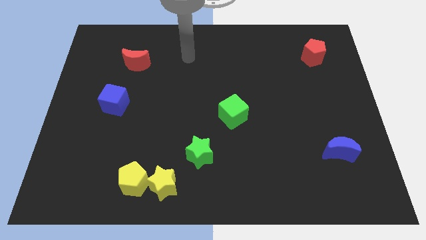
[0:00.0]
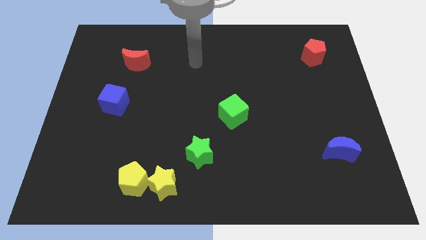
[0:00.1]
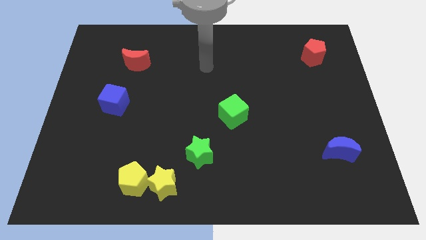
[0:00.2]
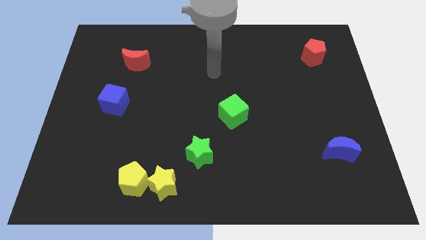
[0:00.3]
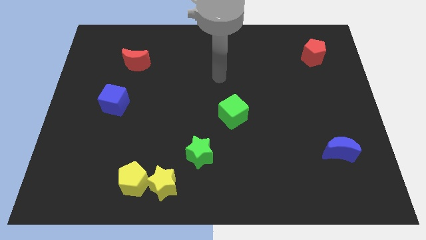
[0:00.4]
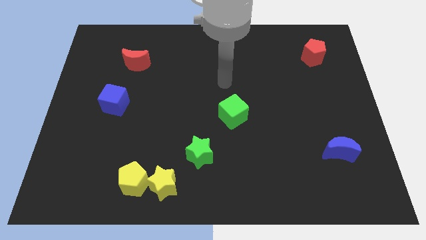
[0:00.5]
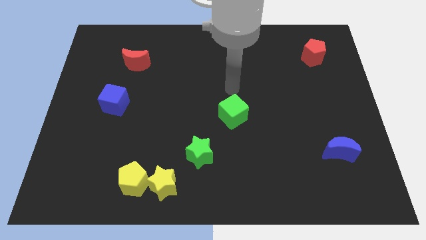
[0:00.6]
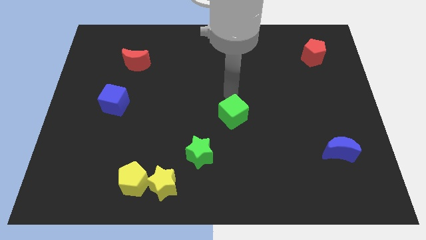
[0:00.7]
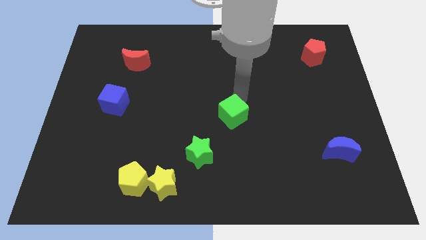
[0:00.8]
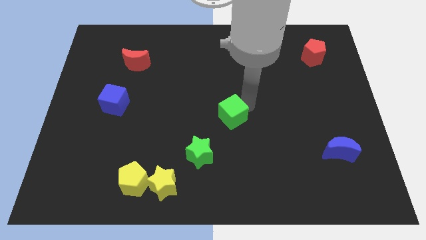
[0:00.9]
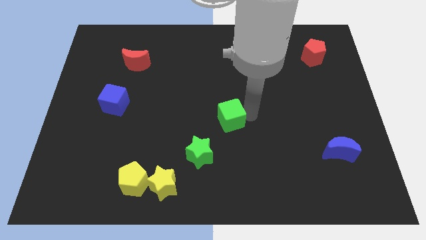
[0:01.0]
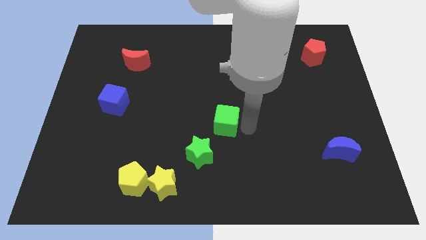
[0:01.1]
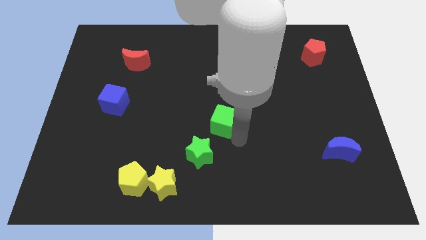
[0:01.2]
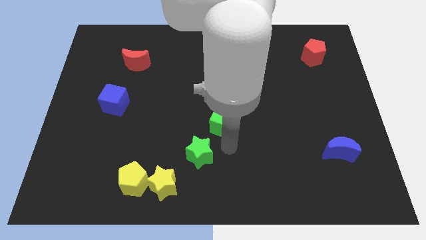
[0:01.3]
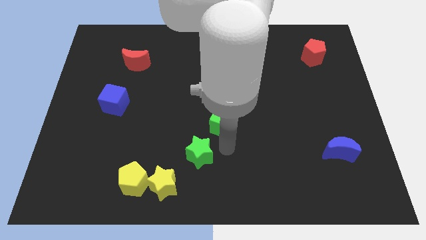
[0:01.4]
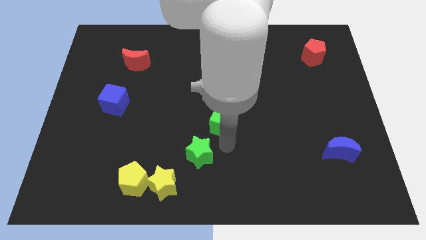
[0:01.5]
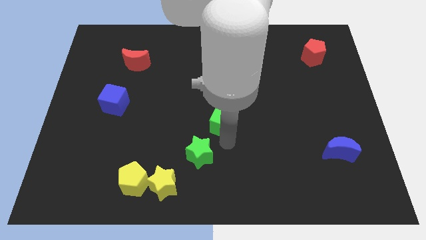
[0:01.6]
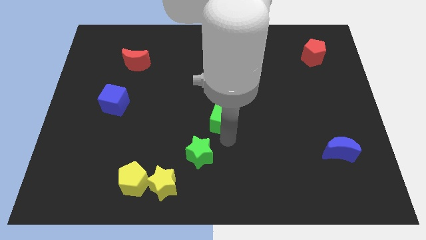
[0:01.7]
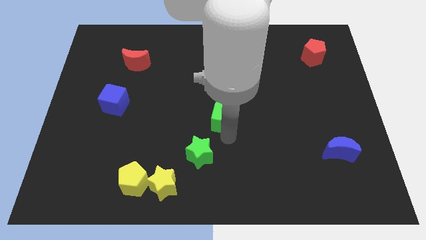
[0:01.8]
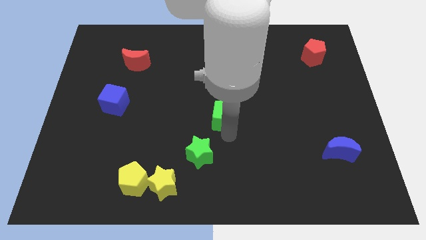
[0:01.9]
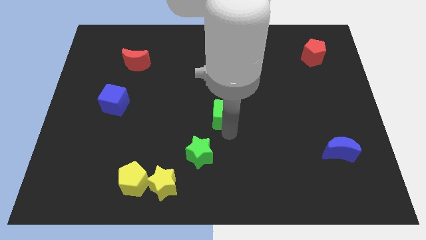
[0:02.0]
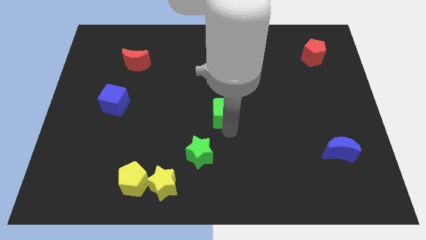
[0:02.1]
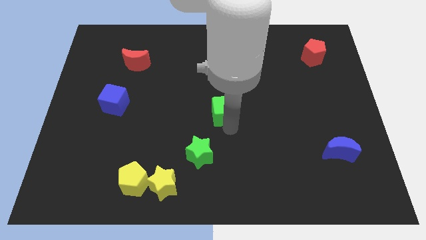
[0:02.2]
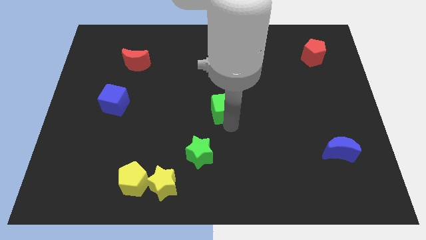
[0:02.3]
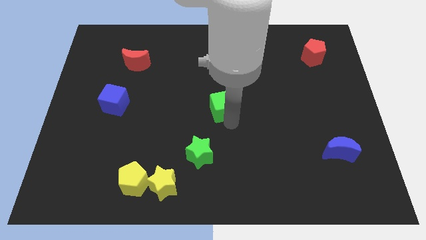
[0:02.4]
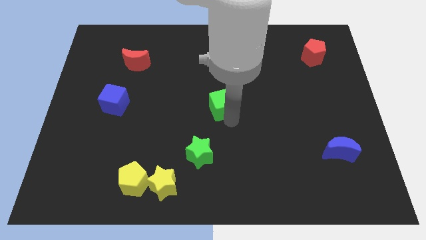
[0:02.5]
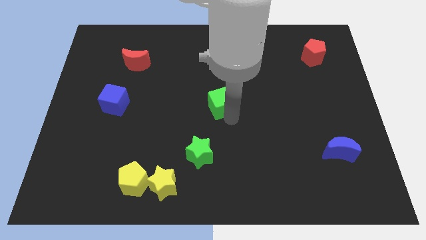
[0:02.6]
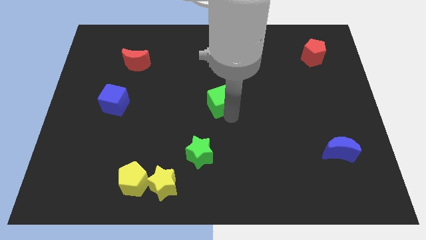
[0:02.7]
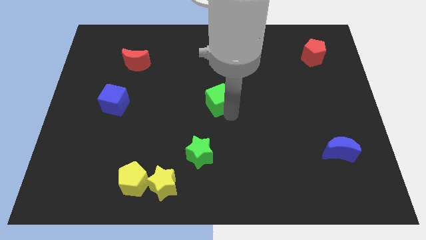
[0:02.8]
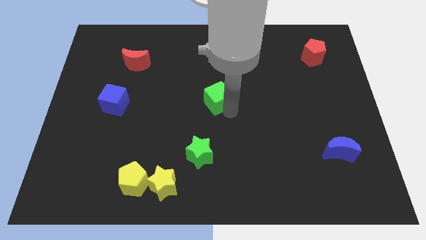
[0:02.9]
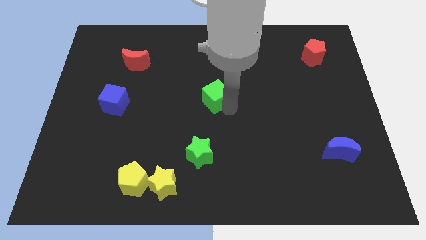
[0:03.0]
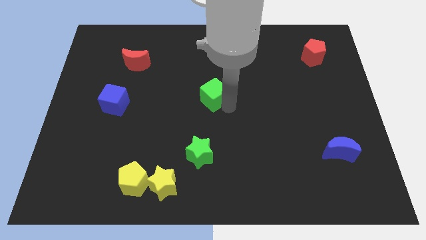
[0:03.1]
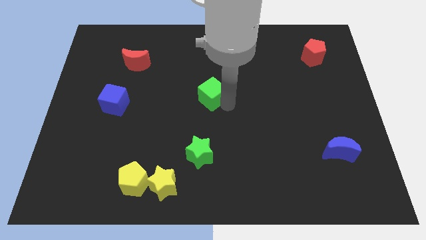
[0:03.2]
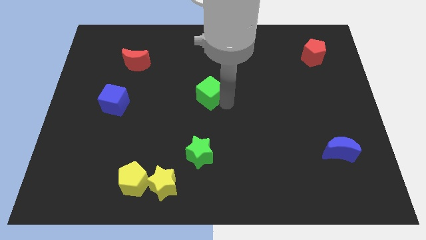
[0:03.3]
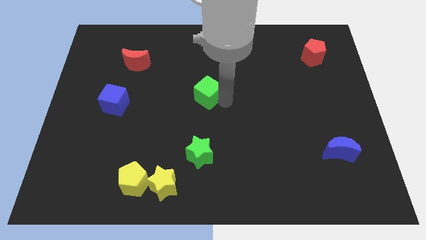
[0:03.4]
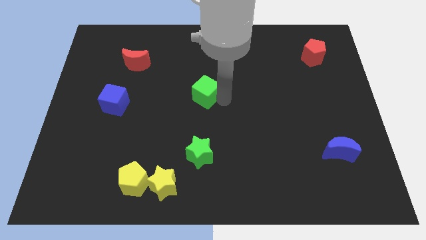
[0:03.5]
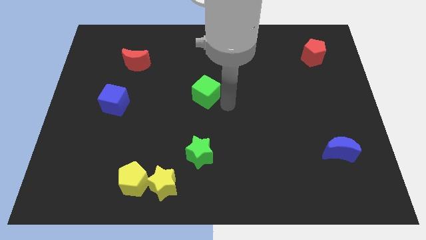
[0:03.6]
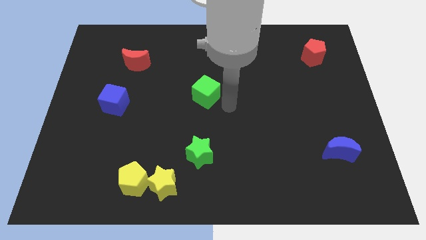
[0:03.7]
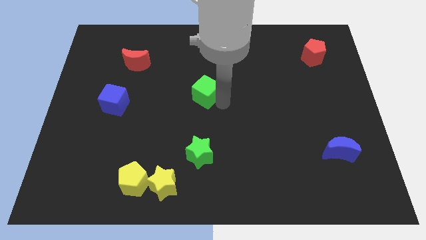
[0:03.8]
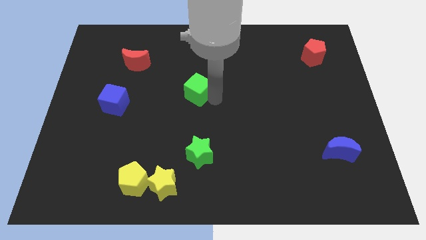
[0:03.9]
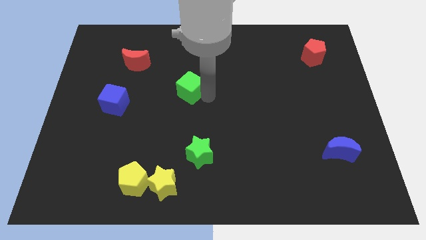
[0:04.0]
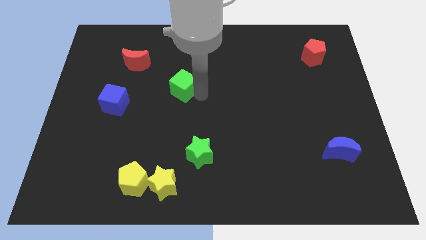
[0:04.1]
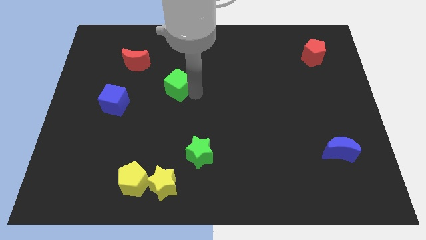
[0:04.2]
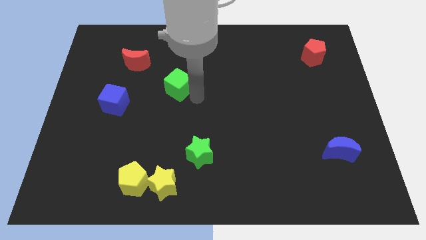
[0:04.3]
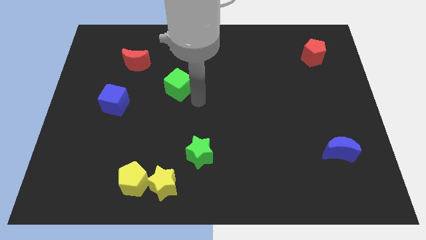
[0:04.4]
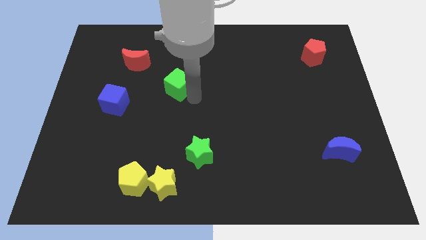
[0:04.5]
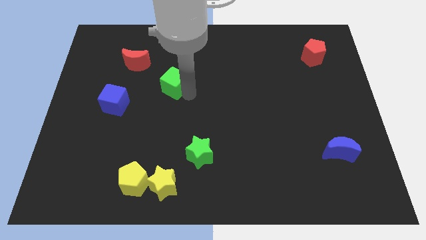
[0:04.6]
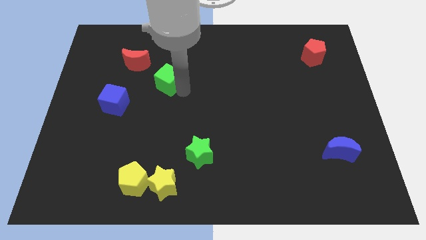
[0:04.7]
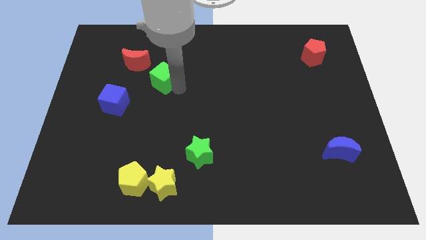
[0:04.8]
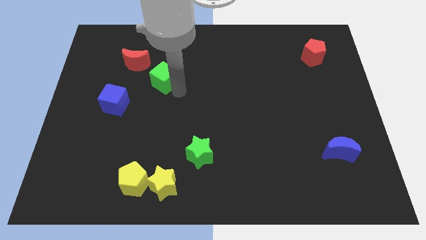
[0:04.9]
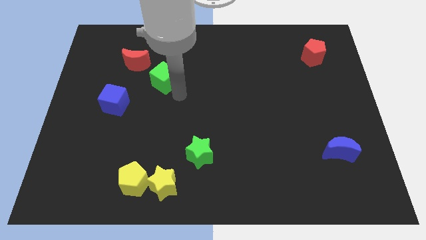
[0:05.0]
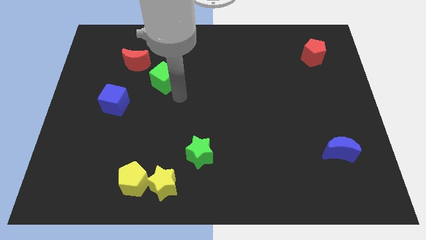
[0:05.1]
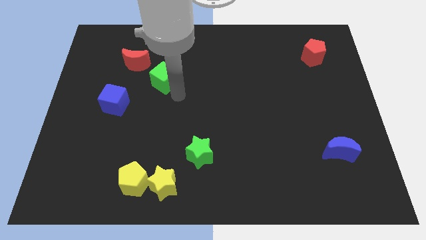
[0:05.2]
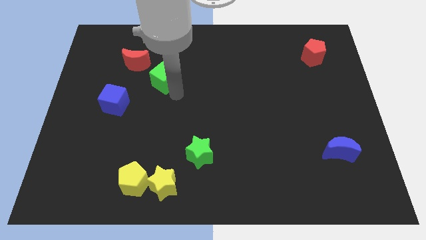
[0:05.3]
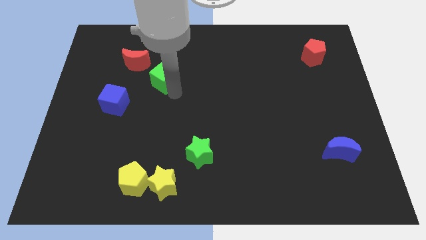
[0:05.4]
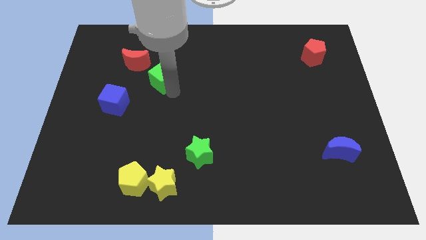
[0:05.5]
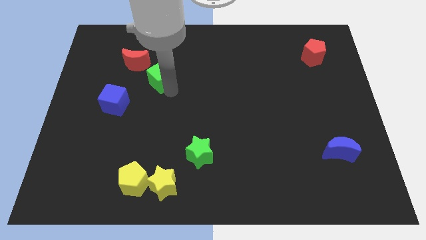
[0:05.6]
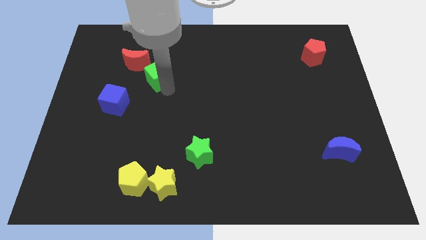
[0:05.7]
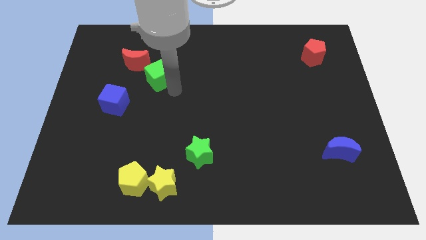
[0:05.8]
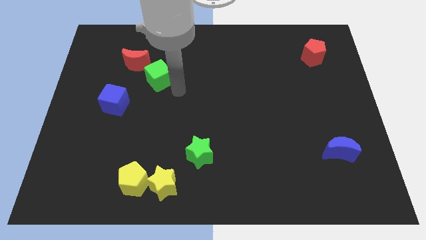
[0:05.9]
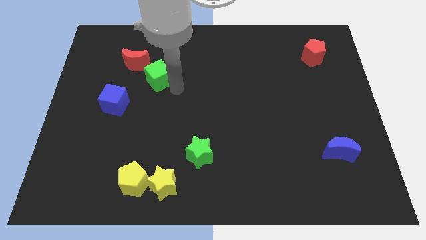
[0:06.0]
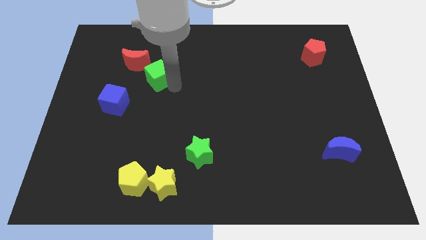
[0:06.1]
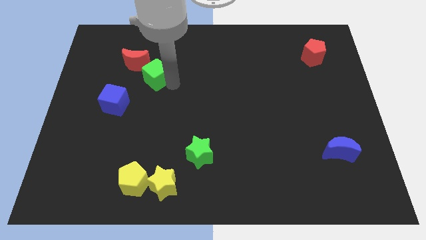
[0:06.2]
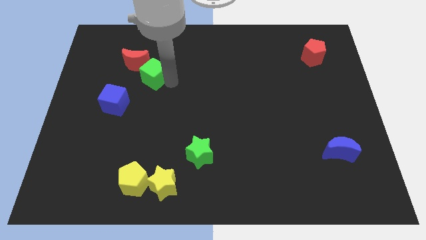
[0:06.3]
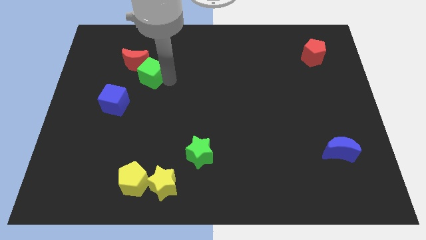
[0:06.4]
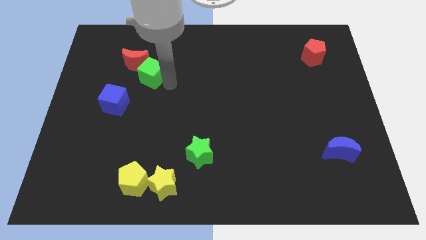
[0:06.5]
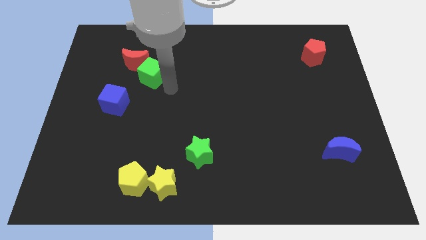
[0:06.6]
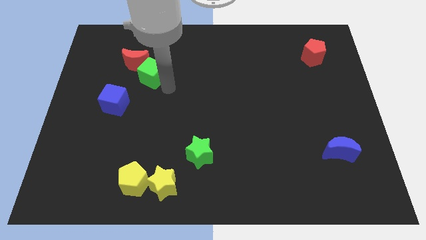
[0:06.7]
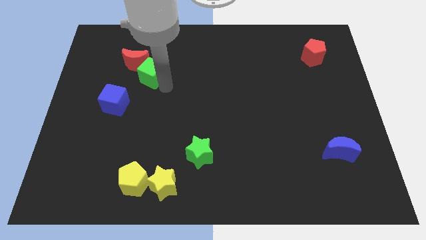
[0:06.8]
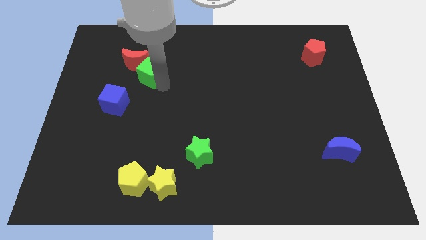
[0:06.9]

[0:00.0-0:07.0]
slide the green cube close to the red moon
